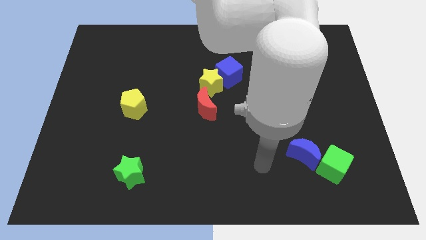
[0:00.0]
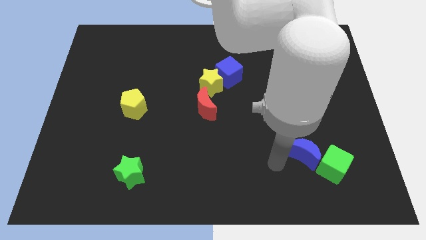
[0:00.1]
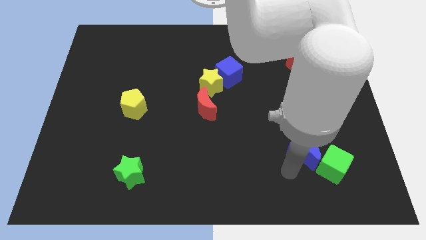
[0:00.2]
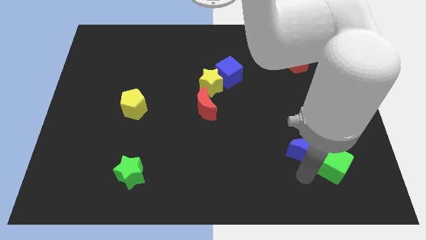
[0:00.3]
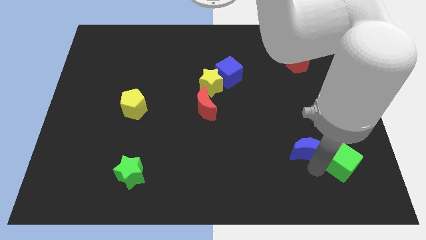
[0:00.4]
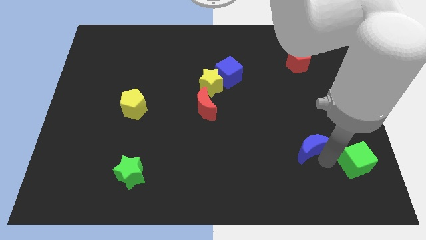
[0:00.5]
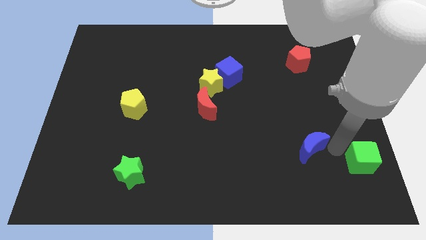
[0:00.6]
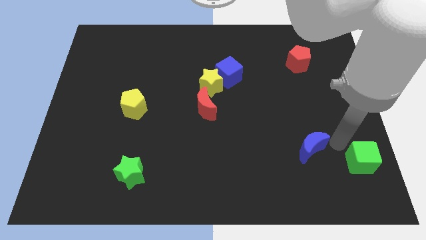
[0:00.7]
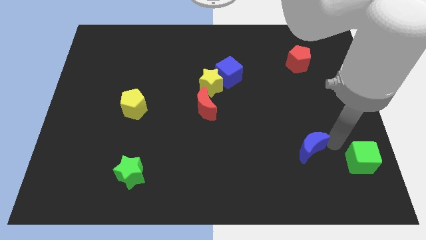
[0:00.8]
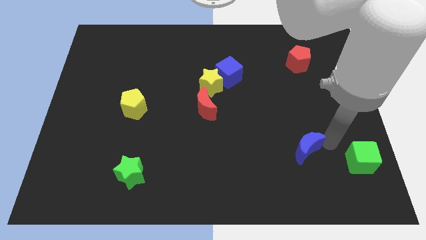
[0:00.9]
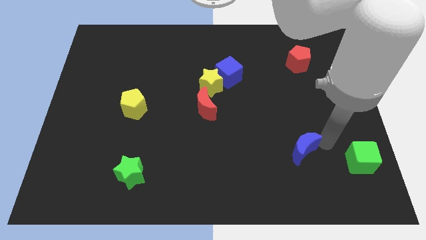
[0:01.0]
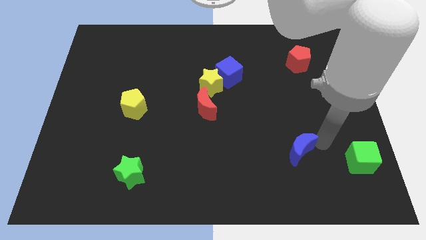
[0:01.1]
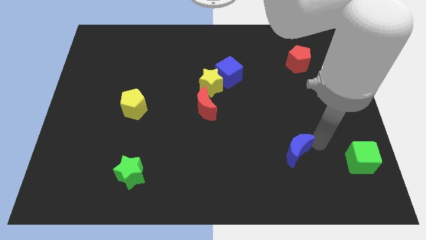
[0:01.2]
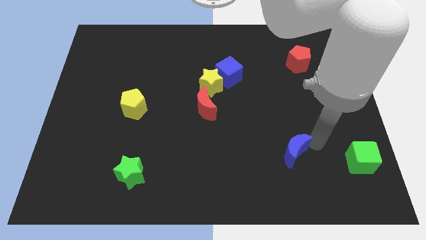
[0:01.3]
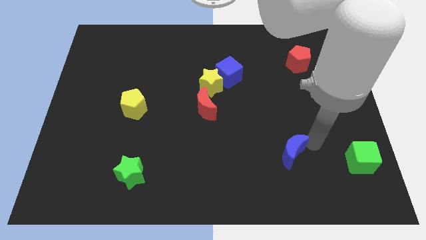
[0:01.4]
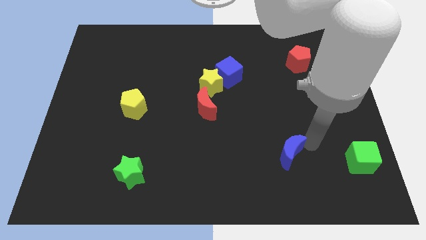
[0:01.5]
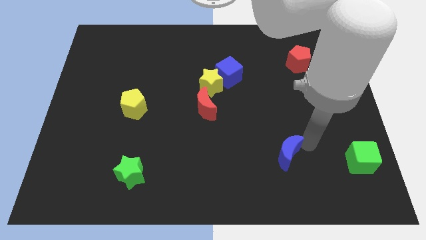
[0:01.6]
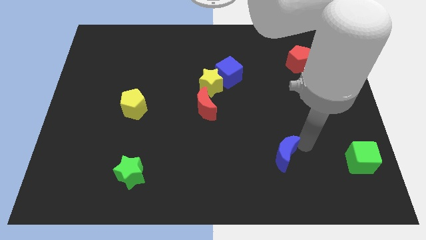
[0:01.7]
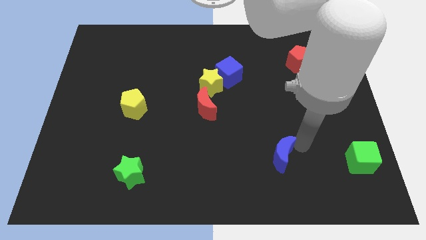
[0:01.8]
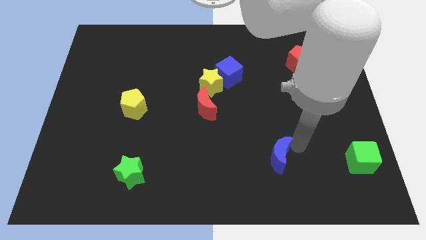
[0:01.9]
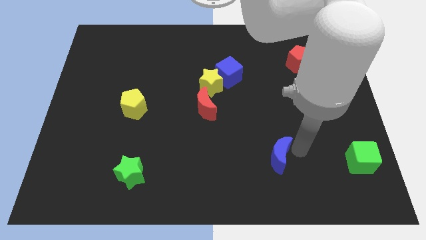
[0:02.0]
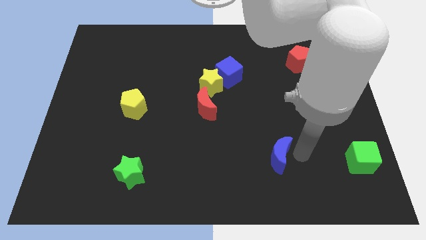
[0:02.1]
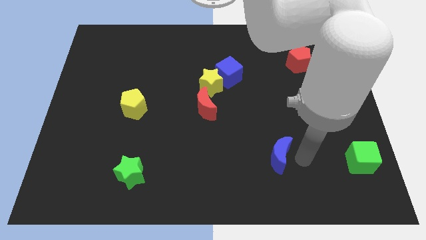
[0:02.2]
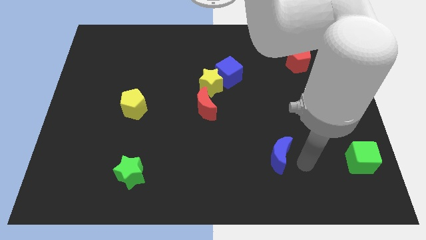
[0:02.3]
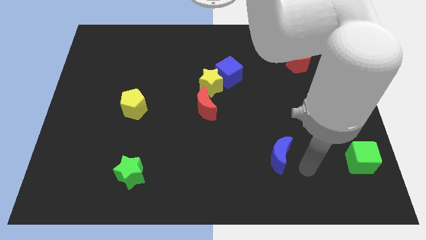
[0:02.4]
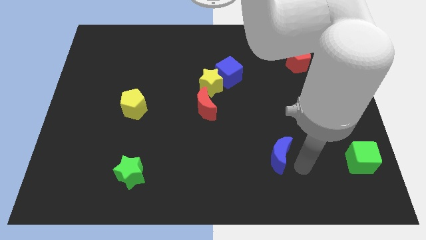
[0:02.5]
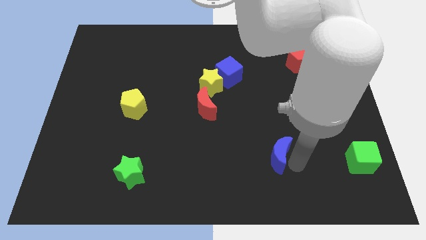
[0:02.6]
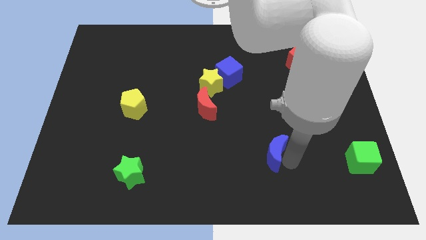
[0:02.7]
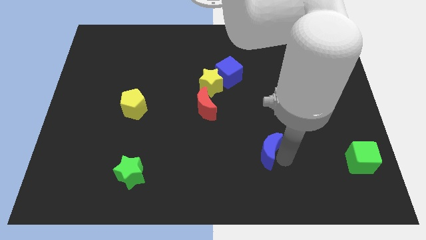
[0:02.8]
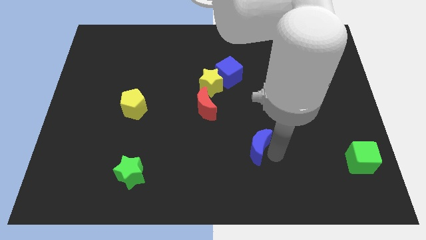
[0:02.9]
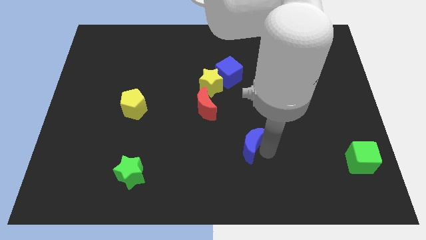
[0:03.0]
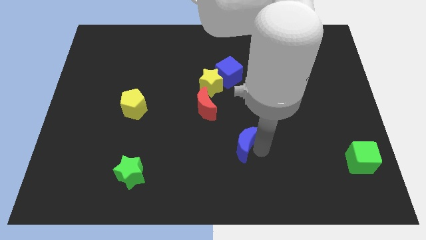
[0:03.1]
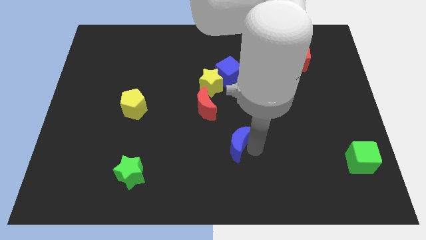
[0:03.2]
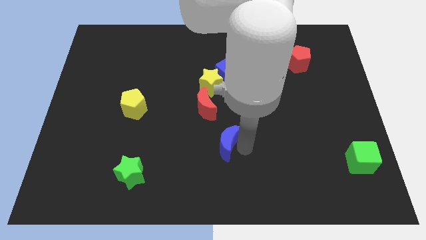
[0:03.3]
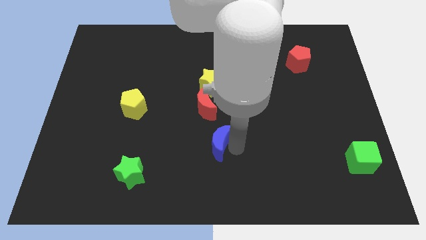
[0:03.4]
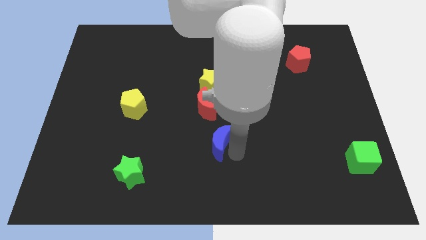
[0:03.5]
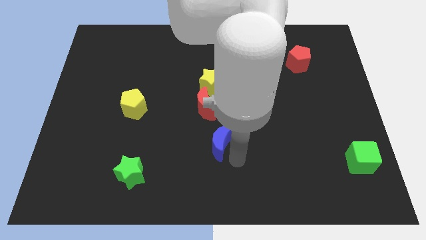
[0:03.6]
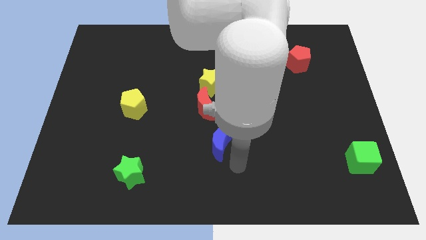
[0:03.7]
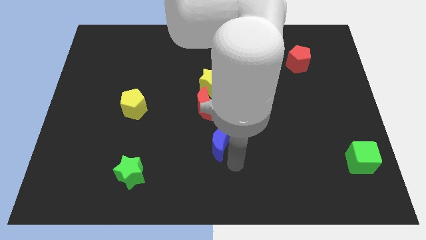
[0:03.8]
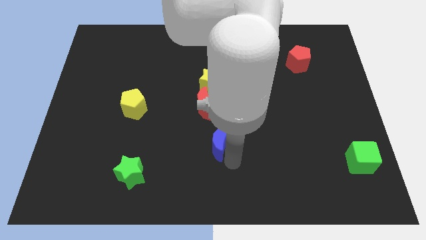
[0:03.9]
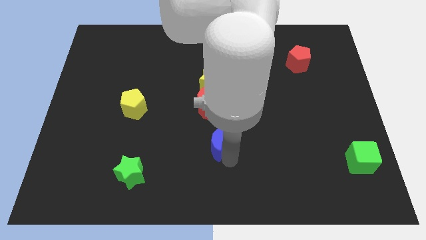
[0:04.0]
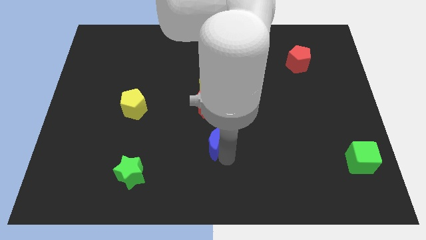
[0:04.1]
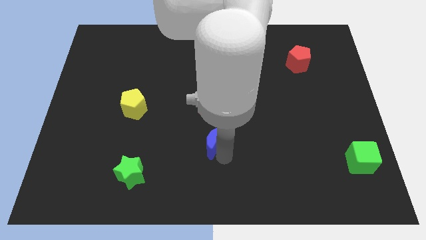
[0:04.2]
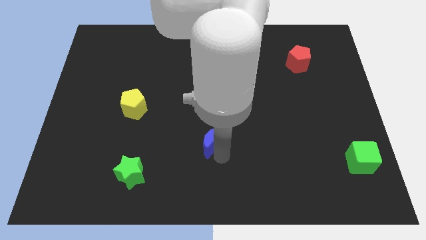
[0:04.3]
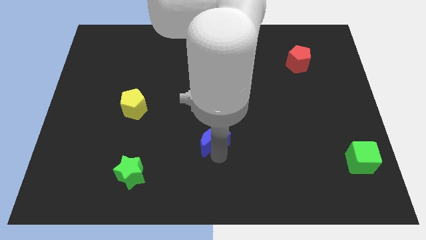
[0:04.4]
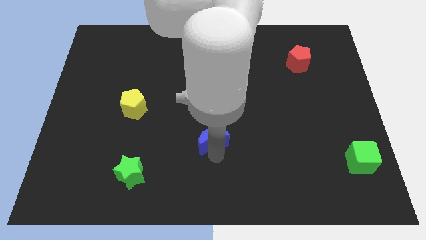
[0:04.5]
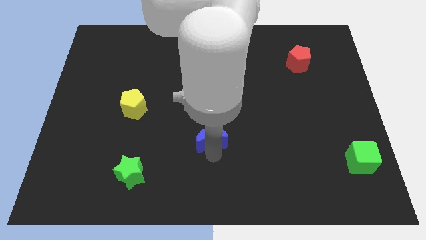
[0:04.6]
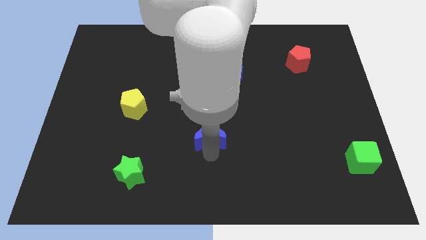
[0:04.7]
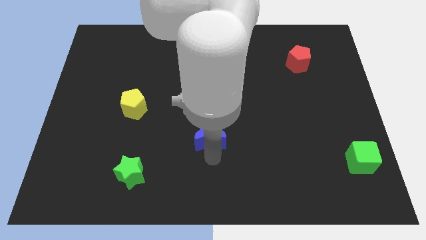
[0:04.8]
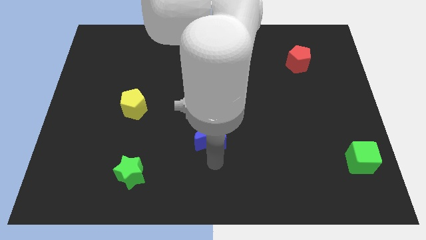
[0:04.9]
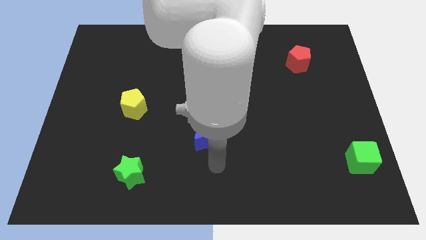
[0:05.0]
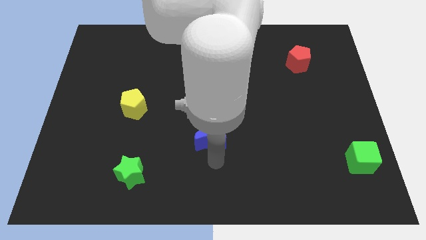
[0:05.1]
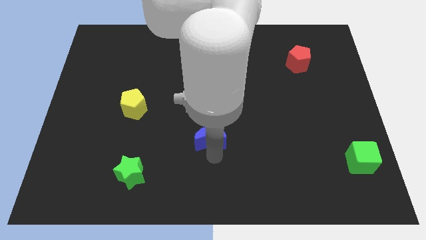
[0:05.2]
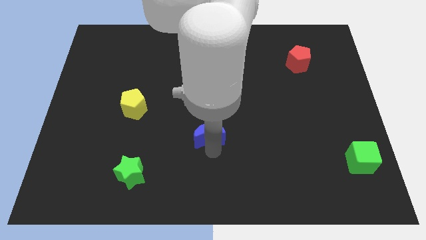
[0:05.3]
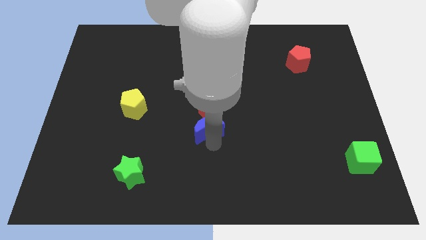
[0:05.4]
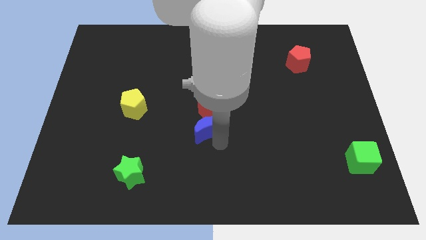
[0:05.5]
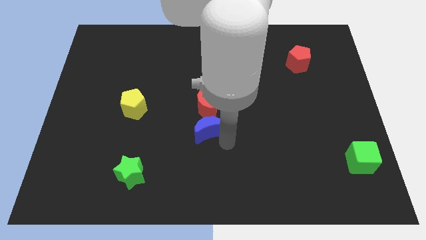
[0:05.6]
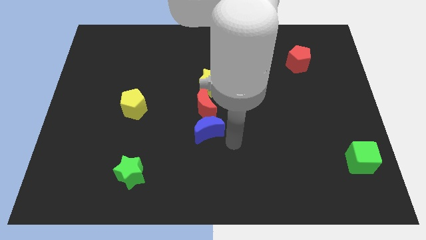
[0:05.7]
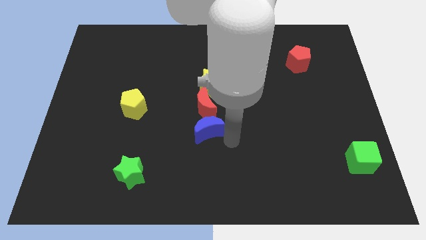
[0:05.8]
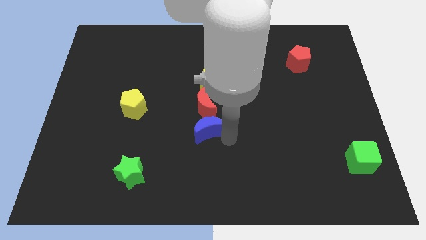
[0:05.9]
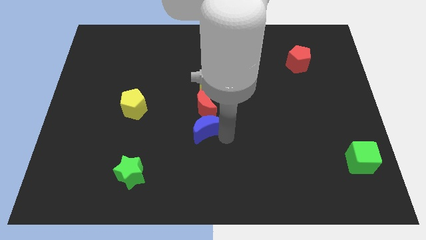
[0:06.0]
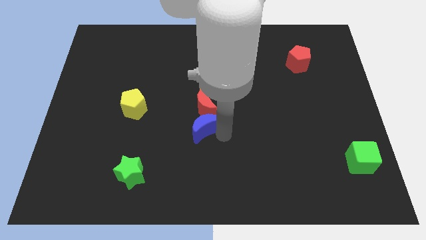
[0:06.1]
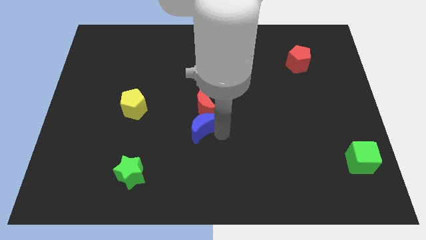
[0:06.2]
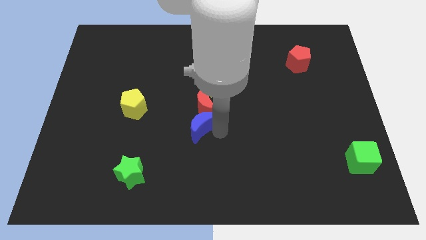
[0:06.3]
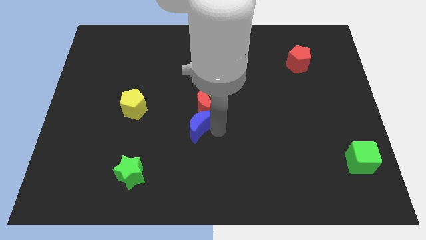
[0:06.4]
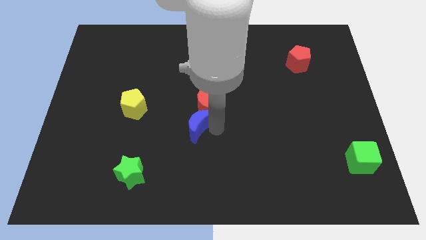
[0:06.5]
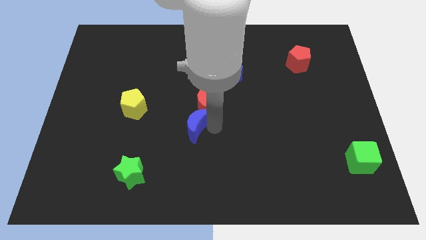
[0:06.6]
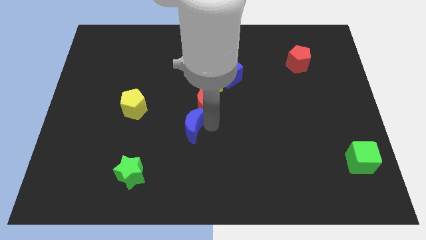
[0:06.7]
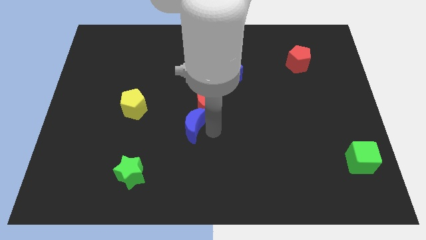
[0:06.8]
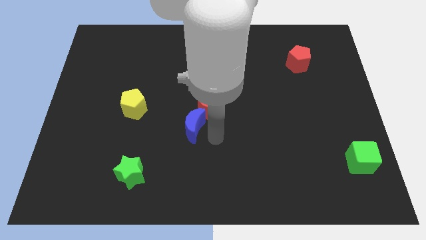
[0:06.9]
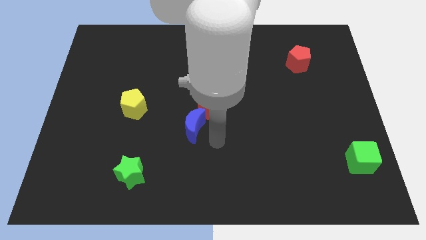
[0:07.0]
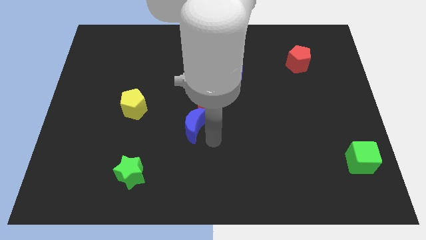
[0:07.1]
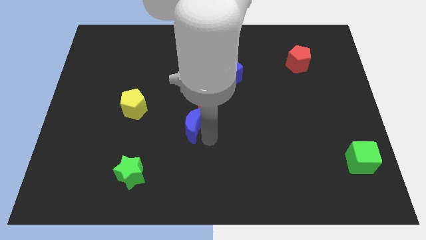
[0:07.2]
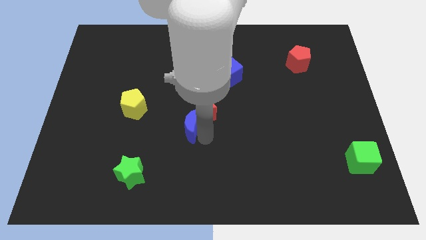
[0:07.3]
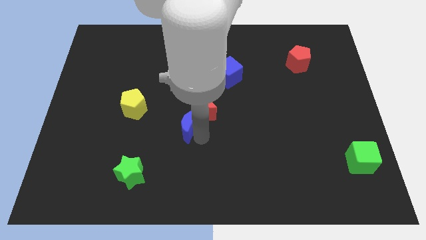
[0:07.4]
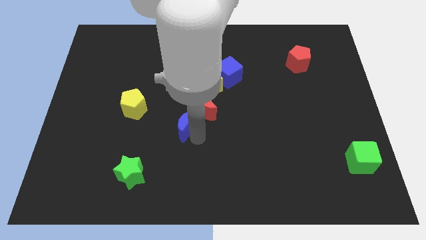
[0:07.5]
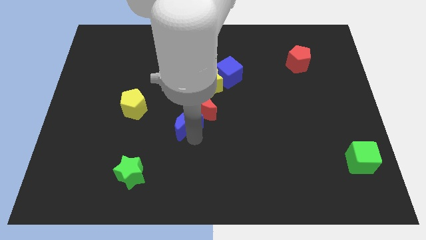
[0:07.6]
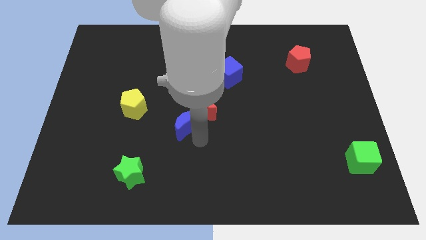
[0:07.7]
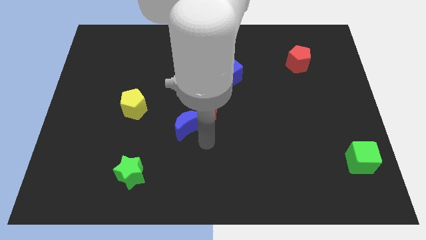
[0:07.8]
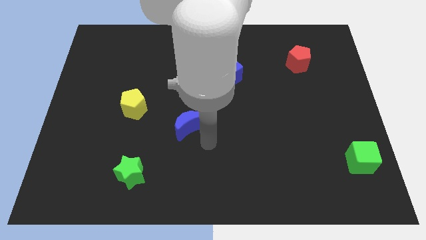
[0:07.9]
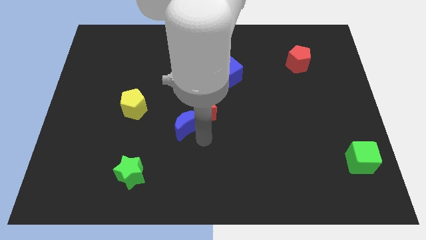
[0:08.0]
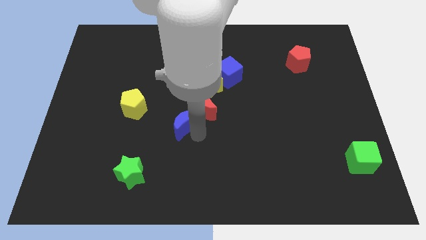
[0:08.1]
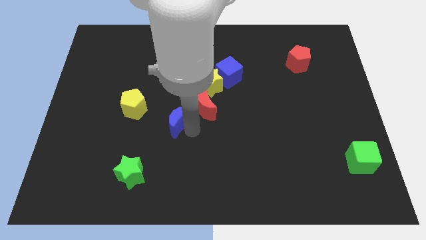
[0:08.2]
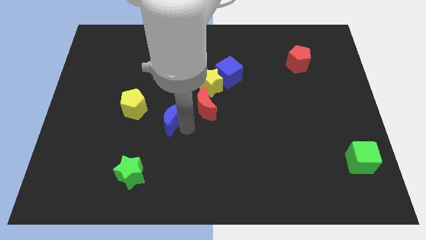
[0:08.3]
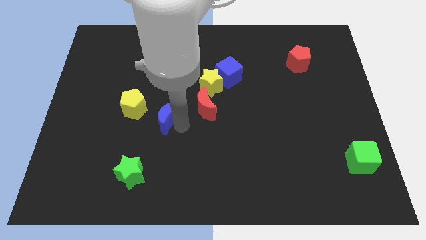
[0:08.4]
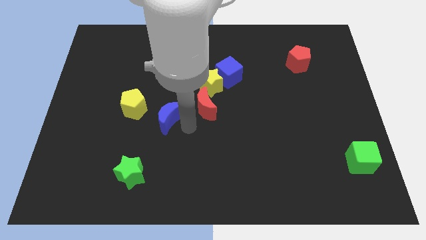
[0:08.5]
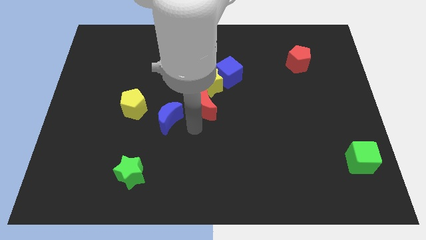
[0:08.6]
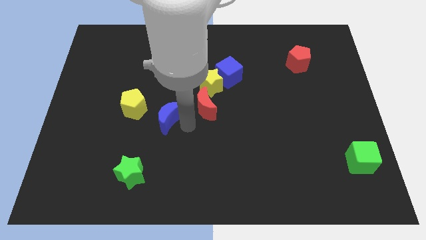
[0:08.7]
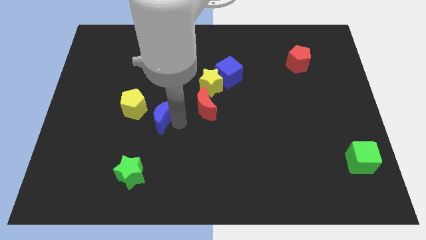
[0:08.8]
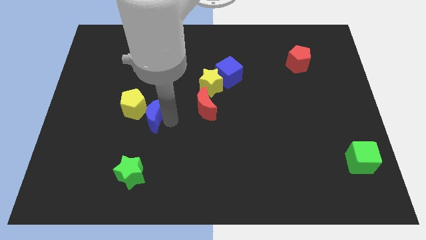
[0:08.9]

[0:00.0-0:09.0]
put the blue moon next to the yellow pentagon
